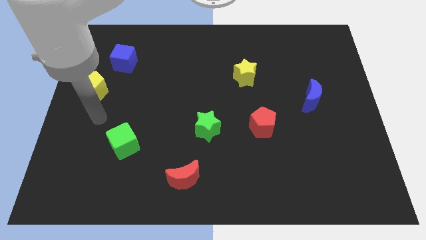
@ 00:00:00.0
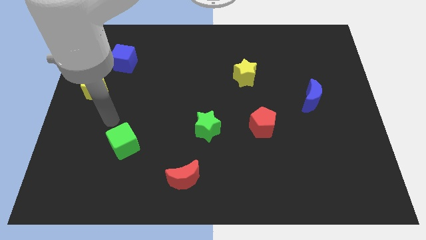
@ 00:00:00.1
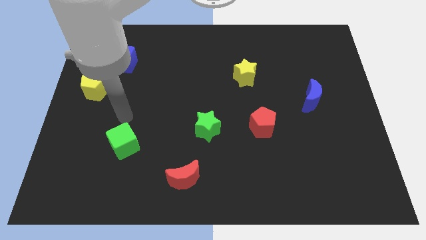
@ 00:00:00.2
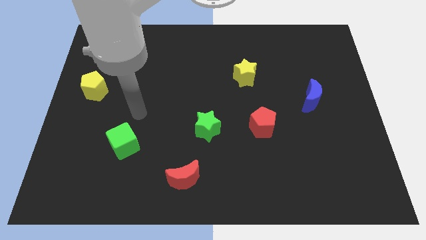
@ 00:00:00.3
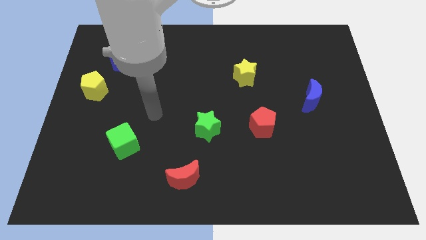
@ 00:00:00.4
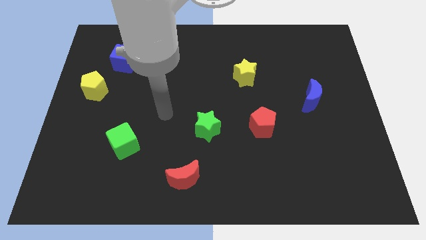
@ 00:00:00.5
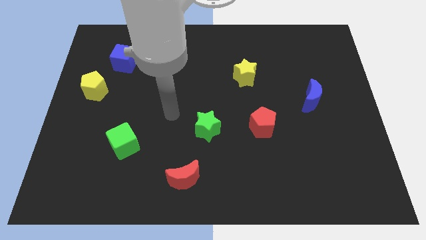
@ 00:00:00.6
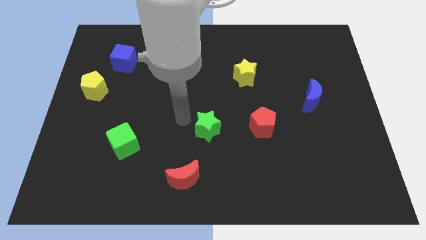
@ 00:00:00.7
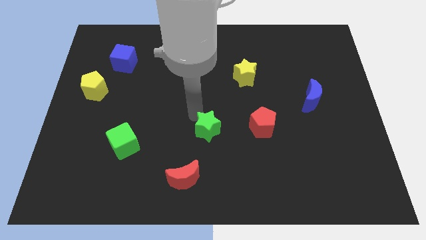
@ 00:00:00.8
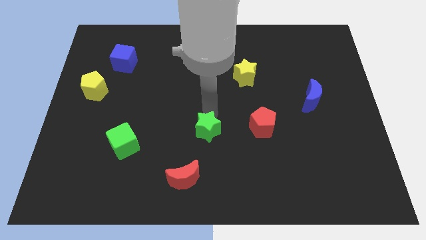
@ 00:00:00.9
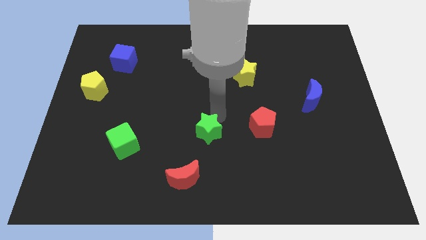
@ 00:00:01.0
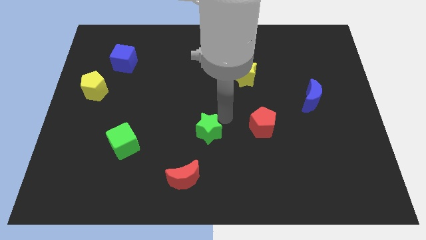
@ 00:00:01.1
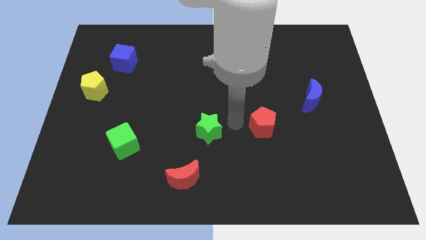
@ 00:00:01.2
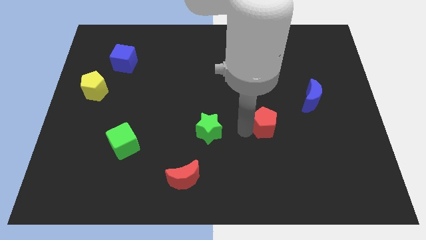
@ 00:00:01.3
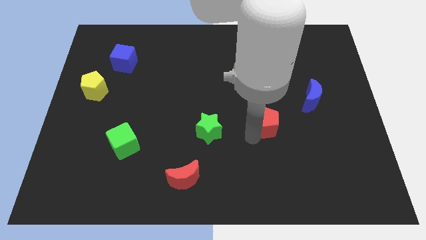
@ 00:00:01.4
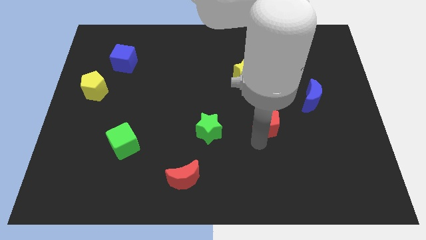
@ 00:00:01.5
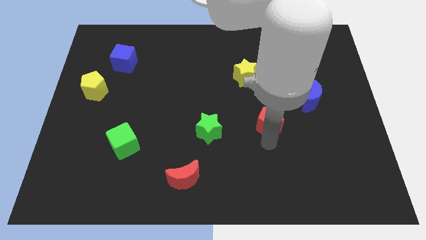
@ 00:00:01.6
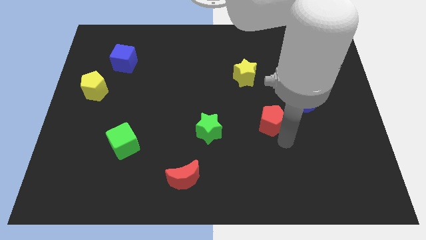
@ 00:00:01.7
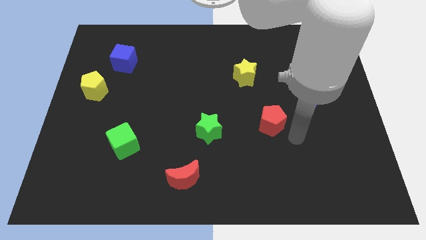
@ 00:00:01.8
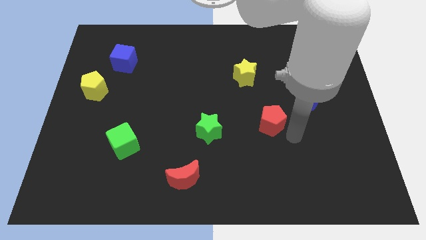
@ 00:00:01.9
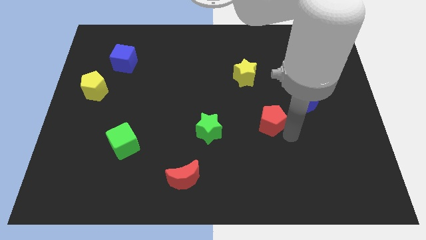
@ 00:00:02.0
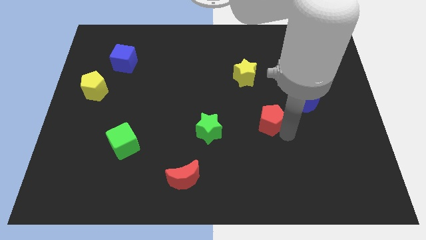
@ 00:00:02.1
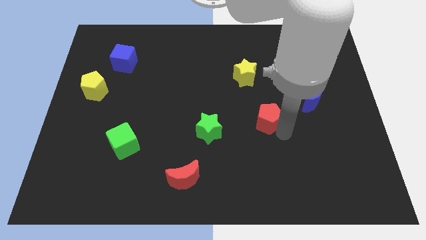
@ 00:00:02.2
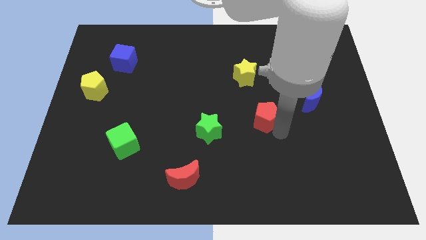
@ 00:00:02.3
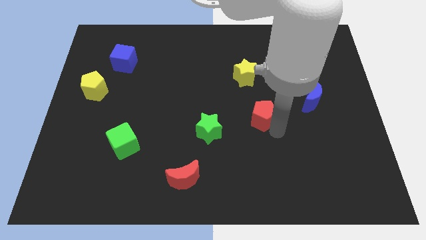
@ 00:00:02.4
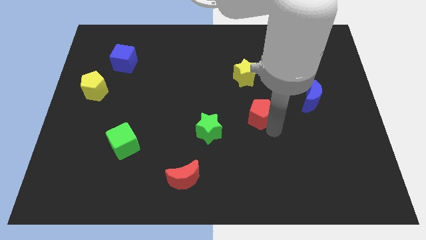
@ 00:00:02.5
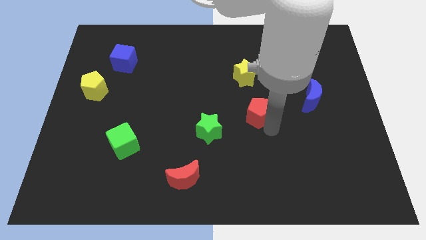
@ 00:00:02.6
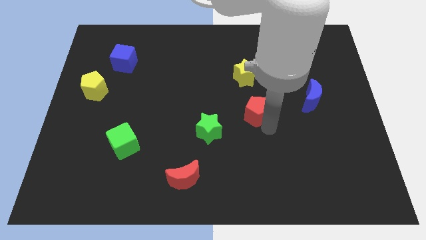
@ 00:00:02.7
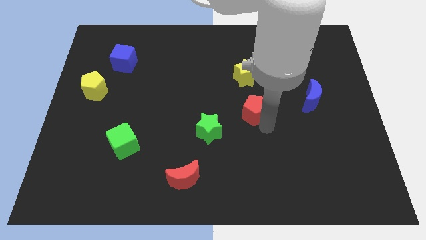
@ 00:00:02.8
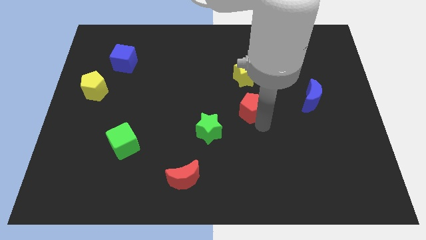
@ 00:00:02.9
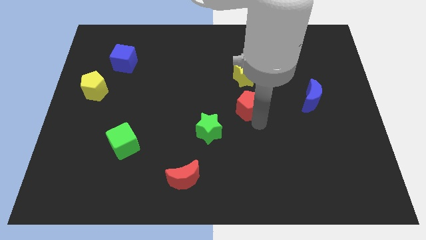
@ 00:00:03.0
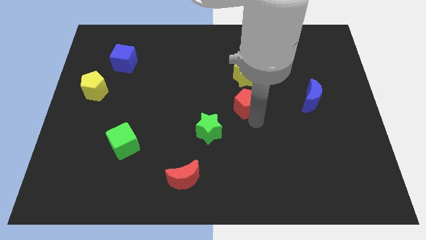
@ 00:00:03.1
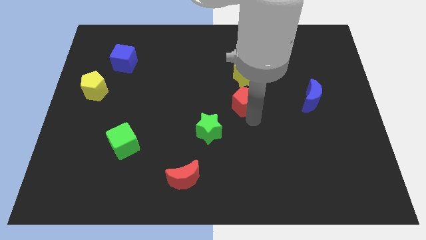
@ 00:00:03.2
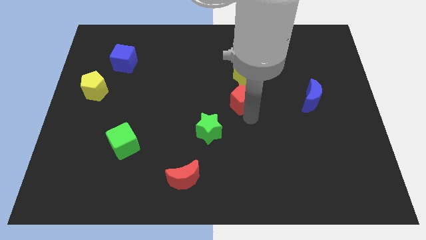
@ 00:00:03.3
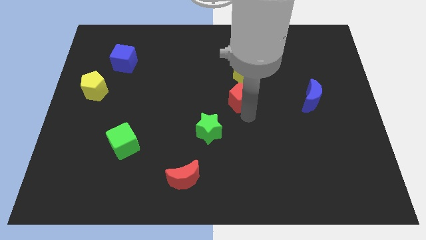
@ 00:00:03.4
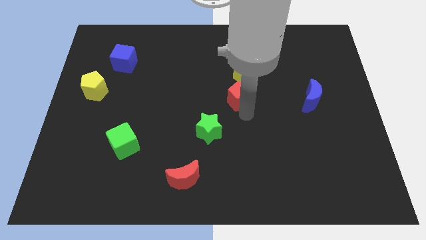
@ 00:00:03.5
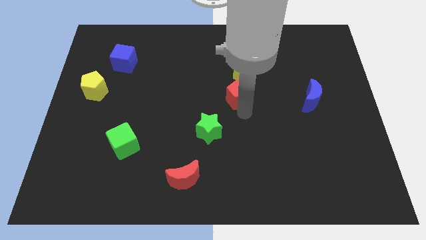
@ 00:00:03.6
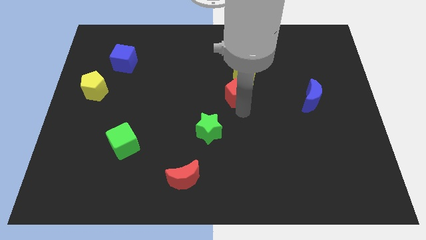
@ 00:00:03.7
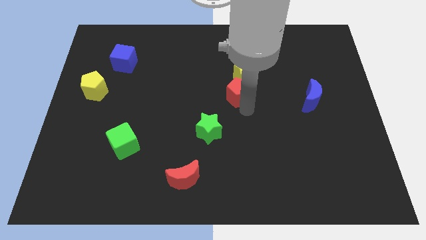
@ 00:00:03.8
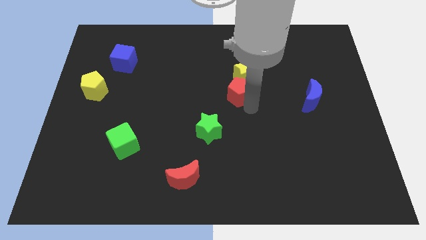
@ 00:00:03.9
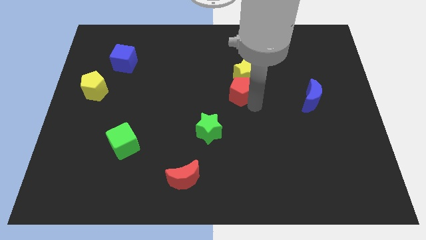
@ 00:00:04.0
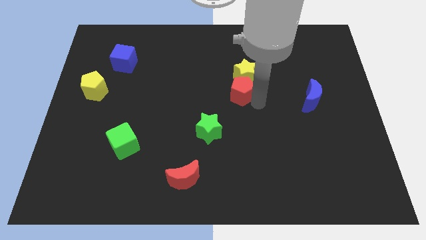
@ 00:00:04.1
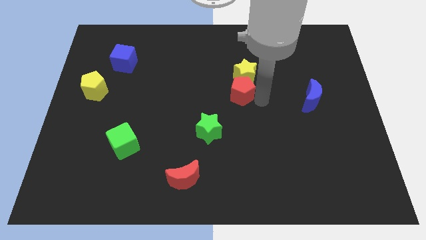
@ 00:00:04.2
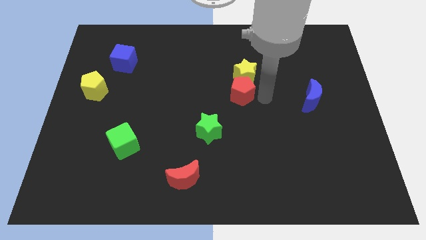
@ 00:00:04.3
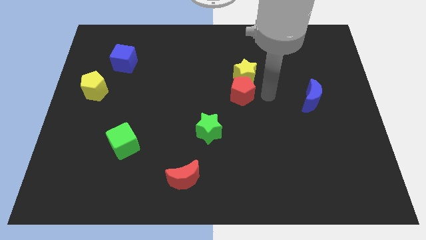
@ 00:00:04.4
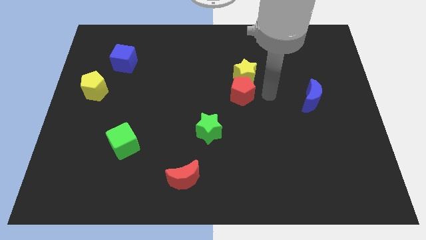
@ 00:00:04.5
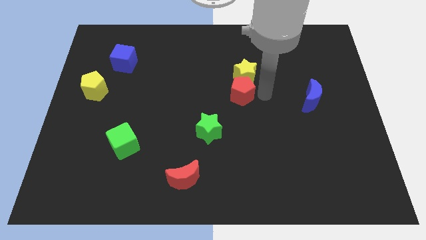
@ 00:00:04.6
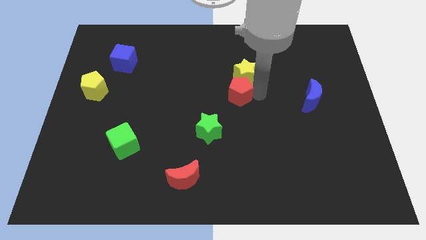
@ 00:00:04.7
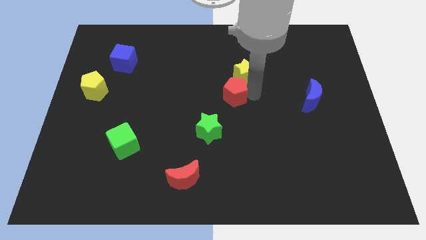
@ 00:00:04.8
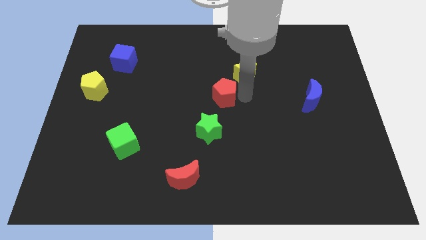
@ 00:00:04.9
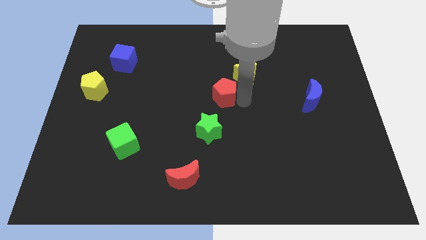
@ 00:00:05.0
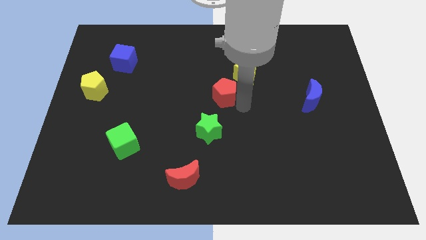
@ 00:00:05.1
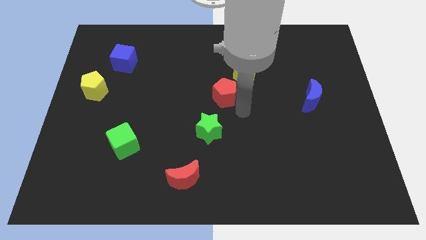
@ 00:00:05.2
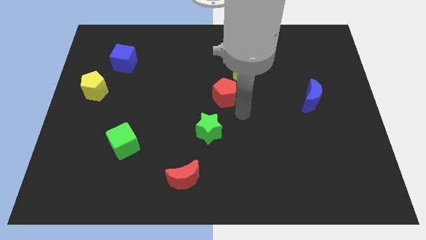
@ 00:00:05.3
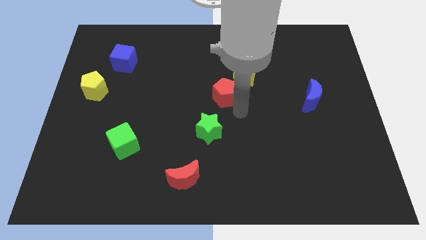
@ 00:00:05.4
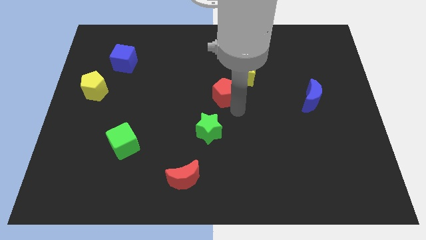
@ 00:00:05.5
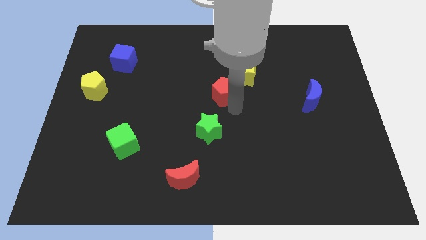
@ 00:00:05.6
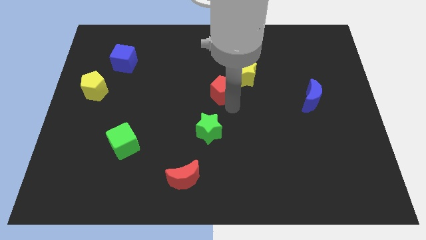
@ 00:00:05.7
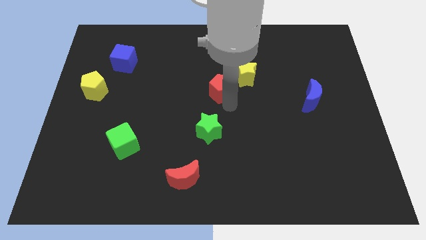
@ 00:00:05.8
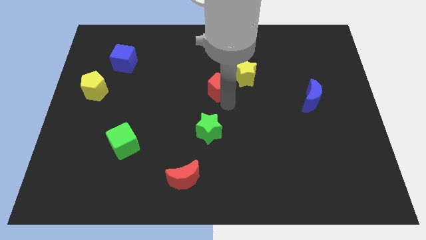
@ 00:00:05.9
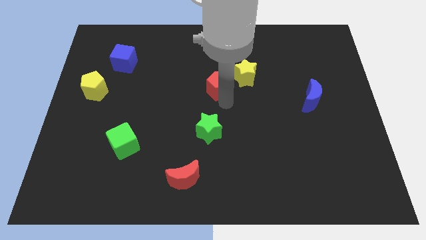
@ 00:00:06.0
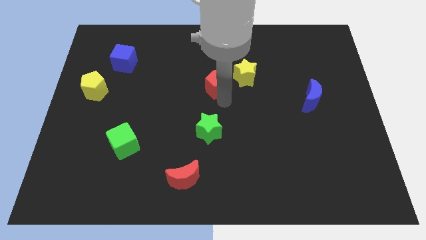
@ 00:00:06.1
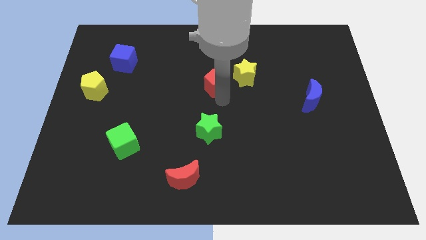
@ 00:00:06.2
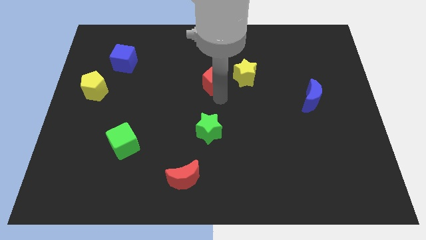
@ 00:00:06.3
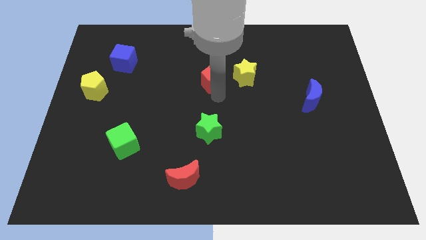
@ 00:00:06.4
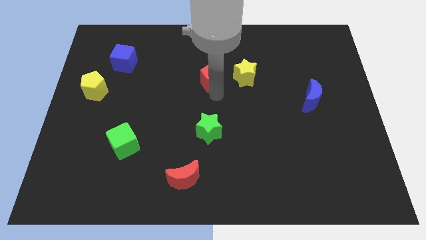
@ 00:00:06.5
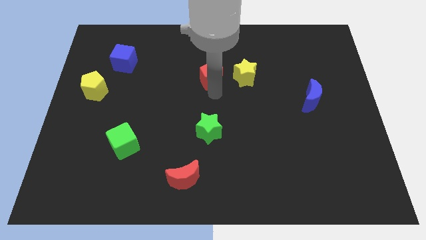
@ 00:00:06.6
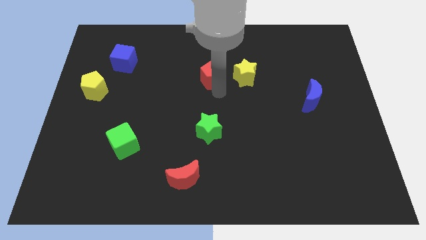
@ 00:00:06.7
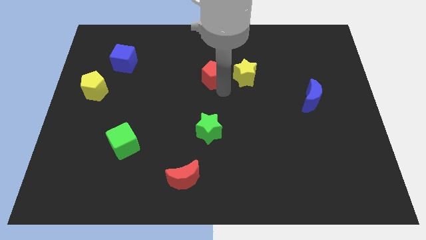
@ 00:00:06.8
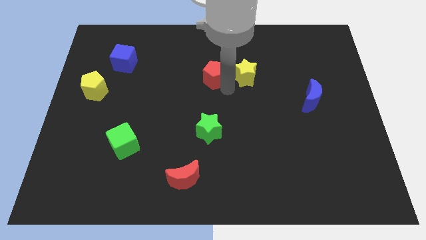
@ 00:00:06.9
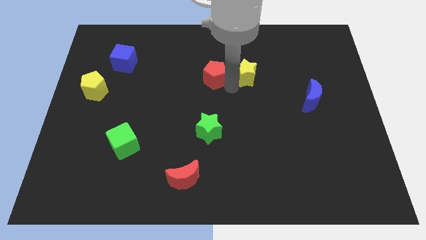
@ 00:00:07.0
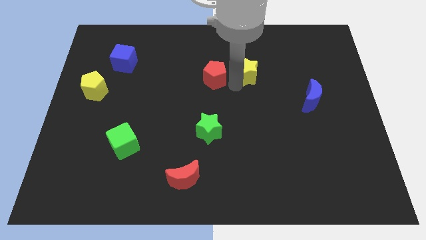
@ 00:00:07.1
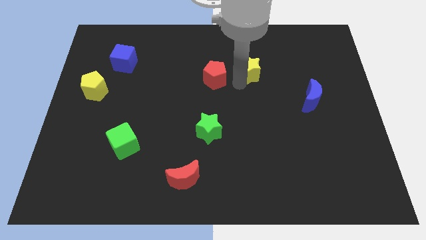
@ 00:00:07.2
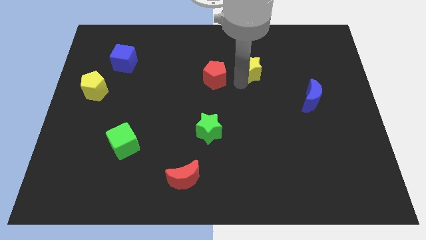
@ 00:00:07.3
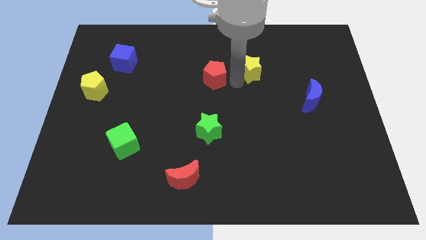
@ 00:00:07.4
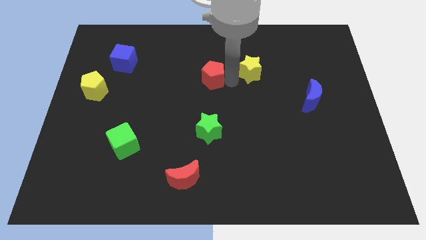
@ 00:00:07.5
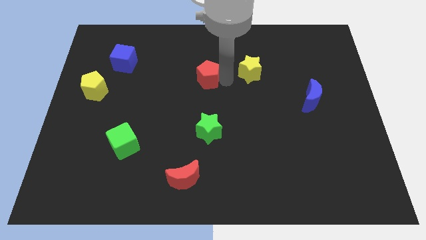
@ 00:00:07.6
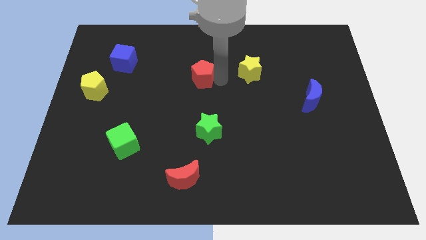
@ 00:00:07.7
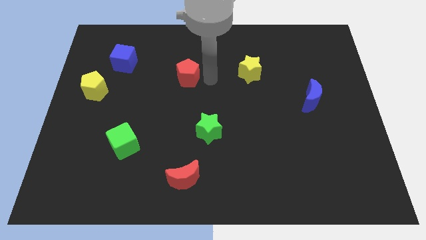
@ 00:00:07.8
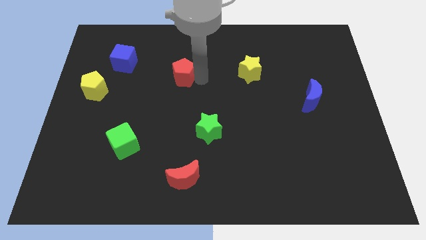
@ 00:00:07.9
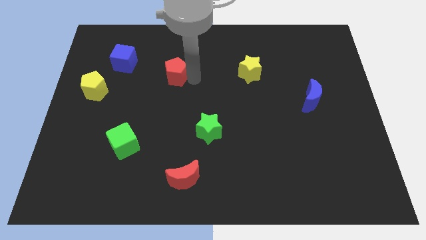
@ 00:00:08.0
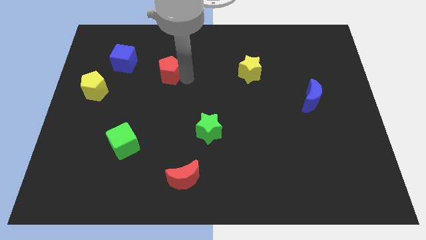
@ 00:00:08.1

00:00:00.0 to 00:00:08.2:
push the red pentagon right of the blue cube
